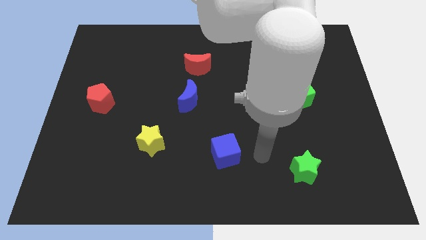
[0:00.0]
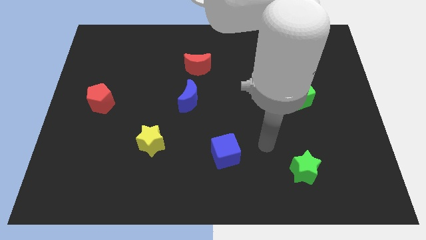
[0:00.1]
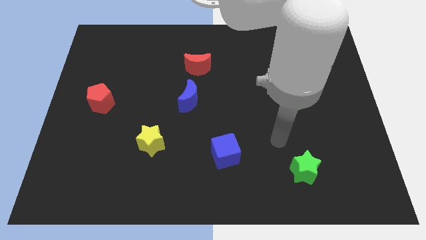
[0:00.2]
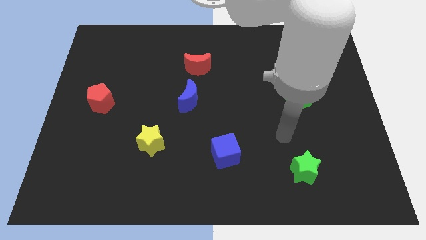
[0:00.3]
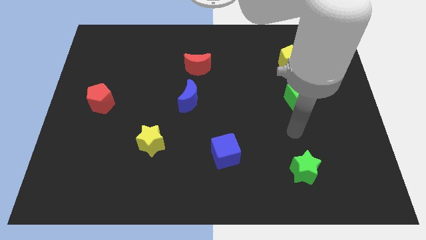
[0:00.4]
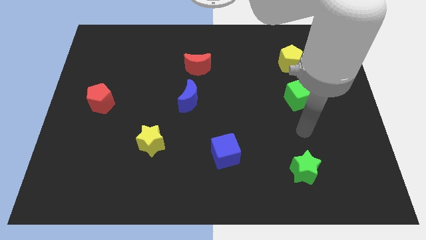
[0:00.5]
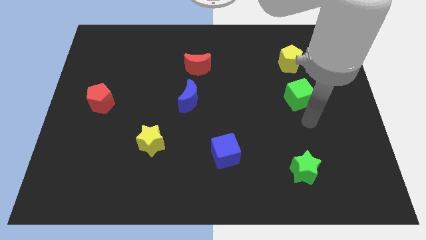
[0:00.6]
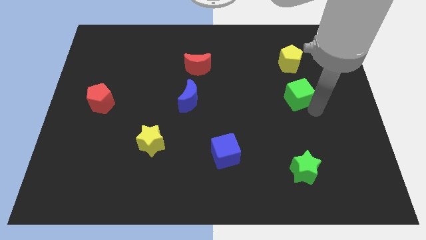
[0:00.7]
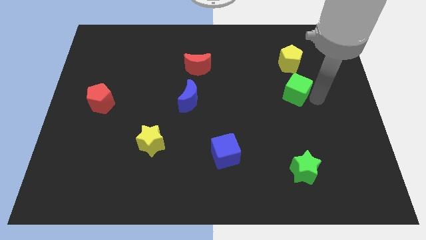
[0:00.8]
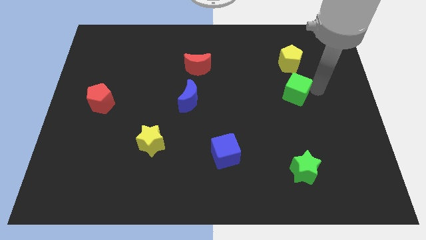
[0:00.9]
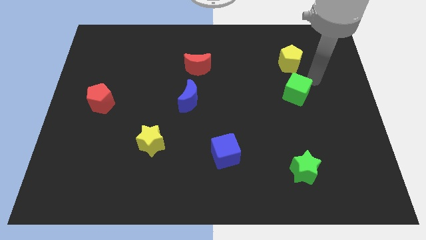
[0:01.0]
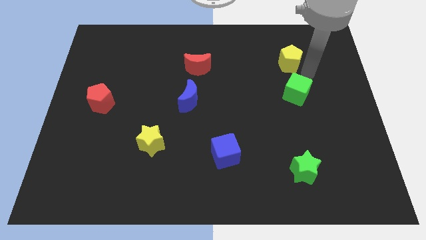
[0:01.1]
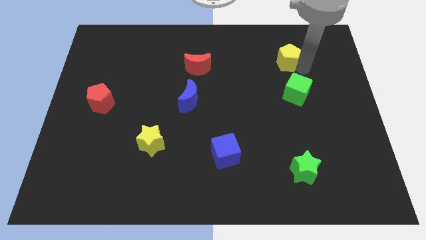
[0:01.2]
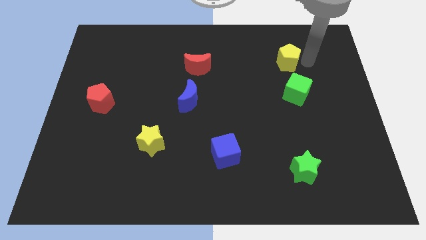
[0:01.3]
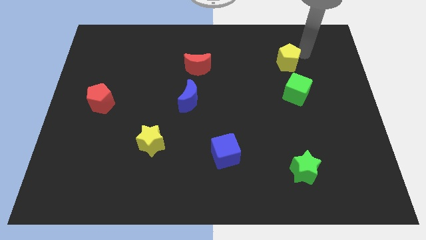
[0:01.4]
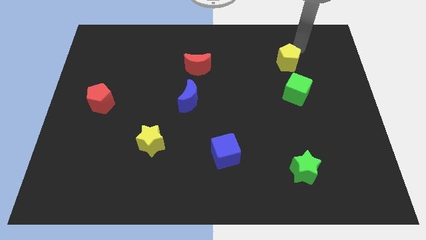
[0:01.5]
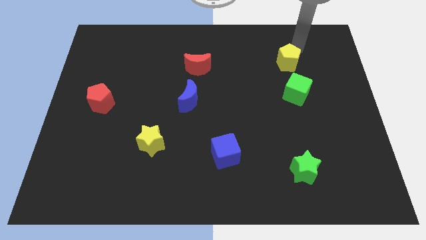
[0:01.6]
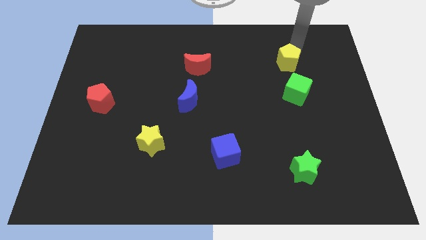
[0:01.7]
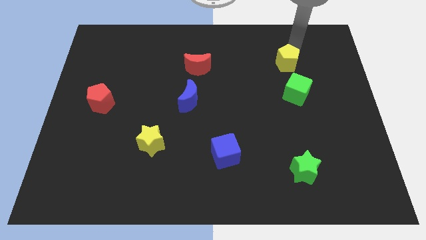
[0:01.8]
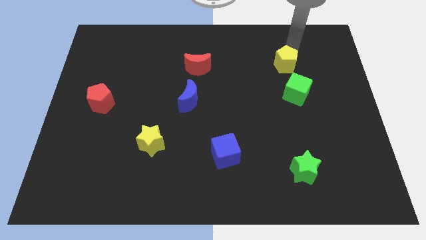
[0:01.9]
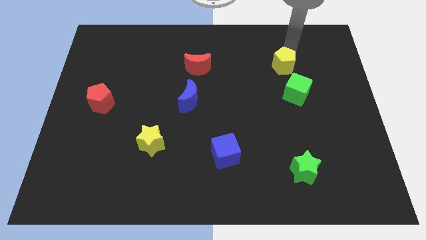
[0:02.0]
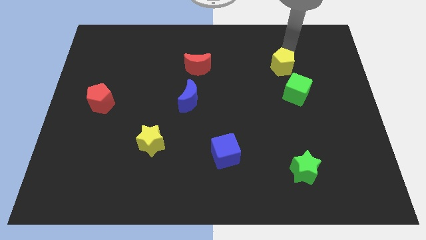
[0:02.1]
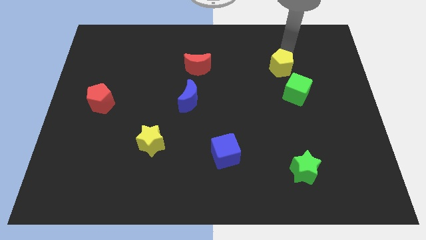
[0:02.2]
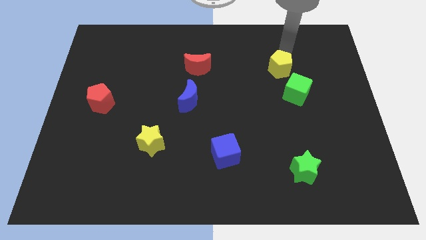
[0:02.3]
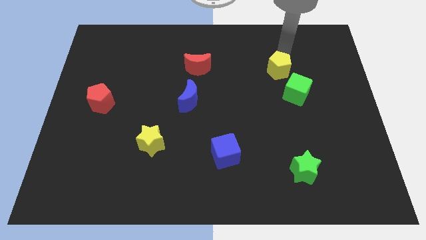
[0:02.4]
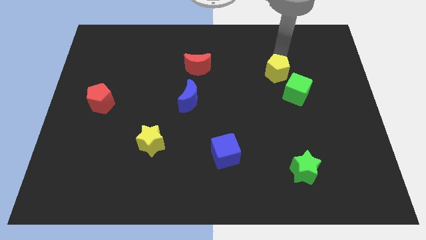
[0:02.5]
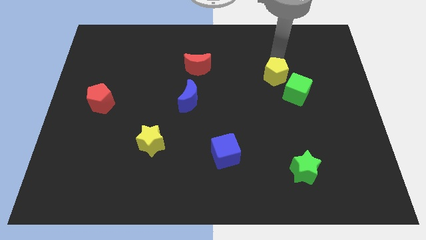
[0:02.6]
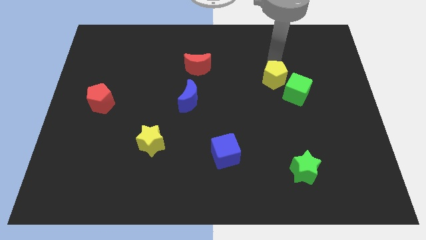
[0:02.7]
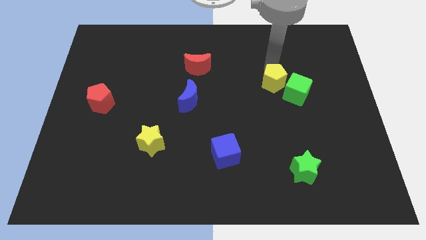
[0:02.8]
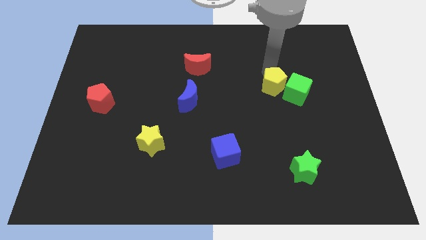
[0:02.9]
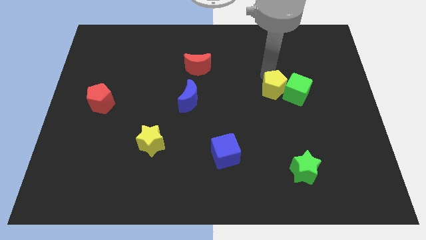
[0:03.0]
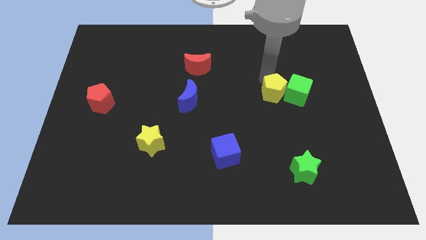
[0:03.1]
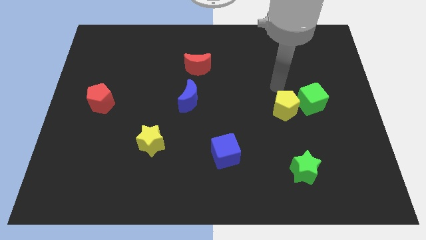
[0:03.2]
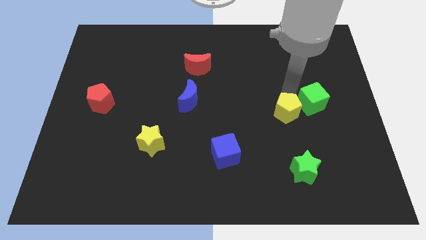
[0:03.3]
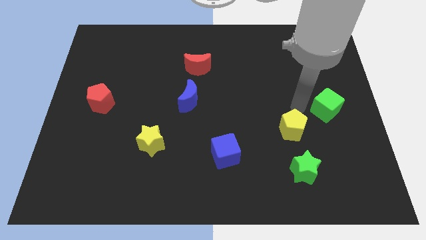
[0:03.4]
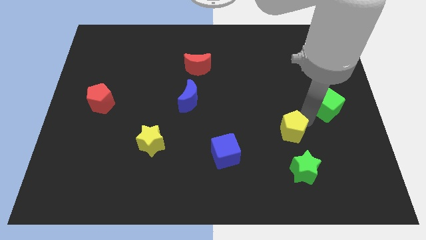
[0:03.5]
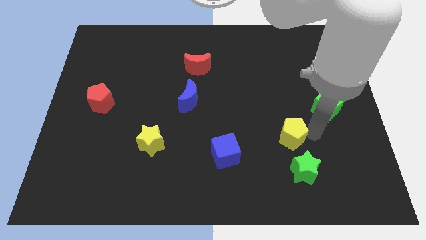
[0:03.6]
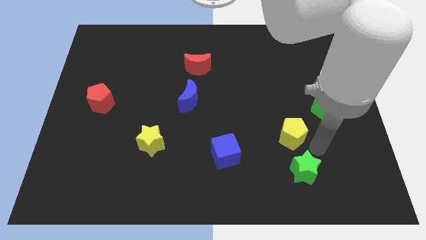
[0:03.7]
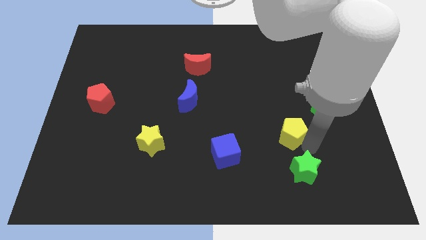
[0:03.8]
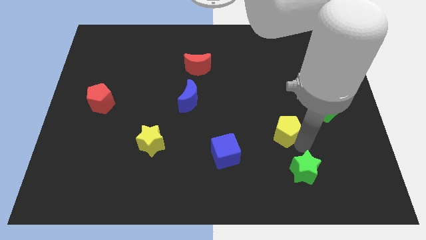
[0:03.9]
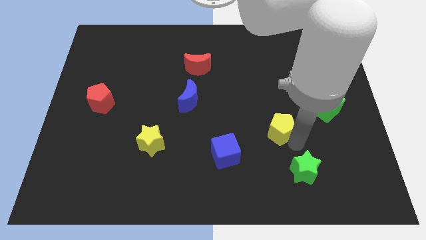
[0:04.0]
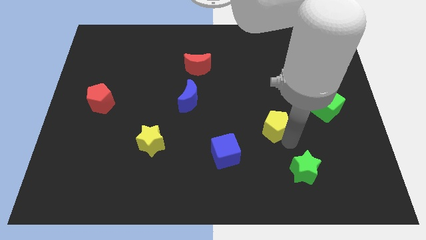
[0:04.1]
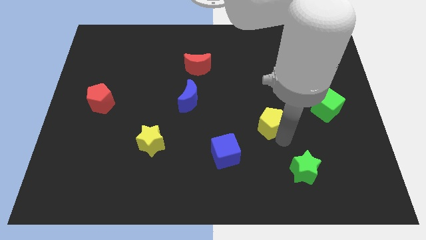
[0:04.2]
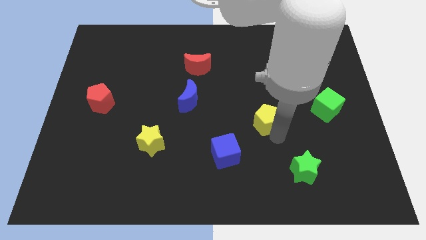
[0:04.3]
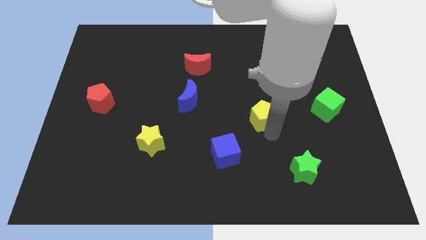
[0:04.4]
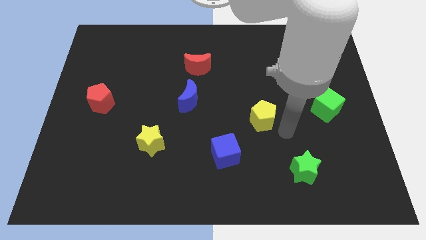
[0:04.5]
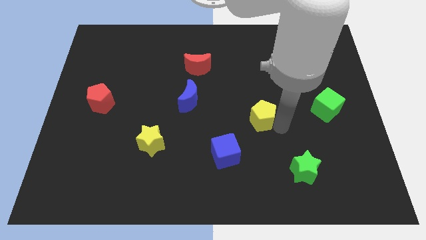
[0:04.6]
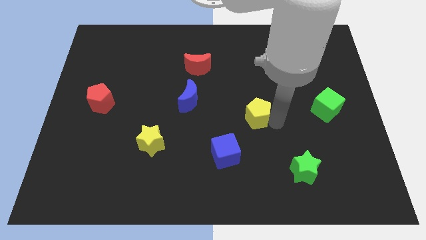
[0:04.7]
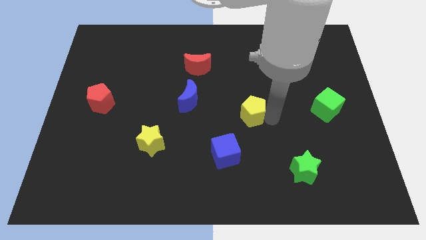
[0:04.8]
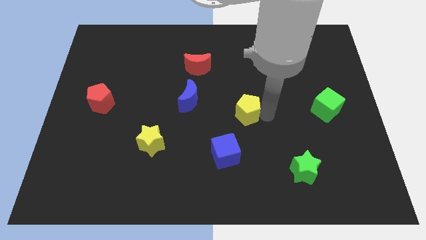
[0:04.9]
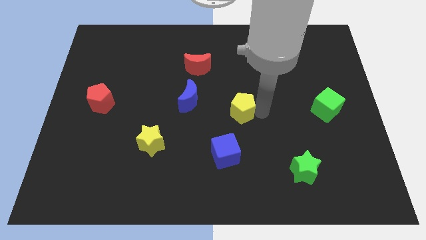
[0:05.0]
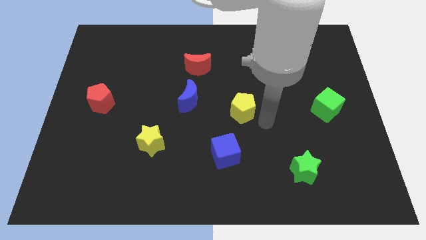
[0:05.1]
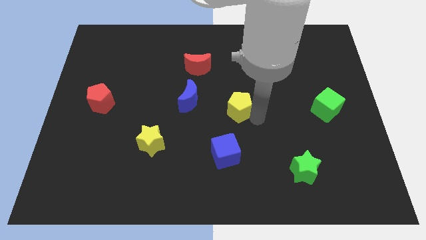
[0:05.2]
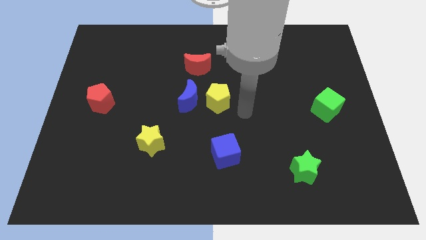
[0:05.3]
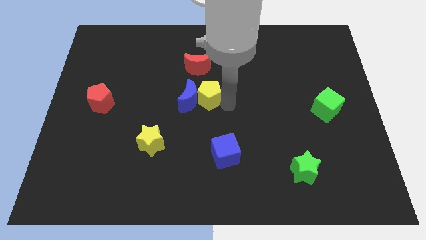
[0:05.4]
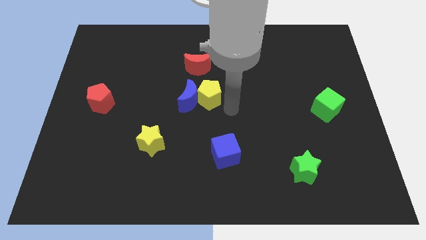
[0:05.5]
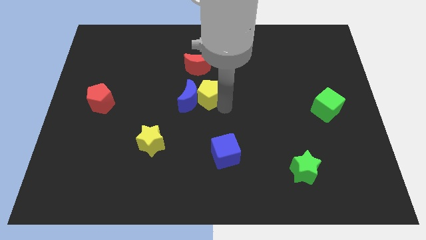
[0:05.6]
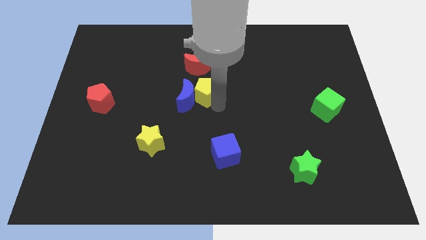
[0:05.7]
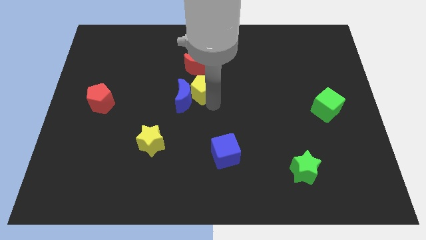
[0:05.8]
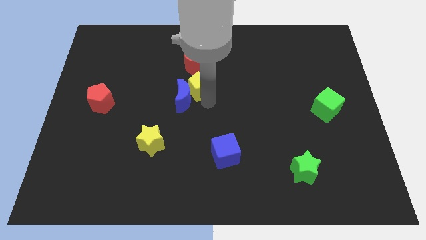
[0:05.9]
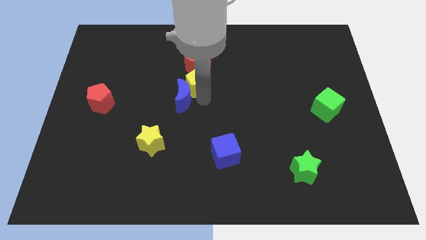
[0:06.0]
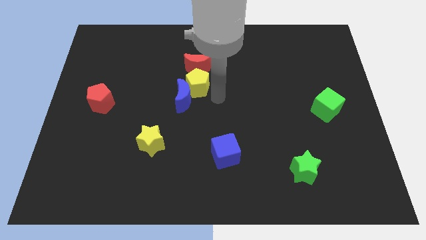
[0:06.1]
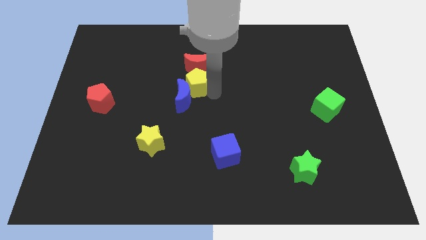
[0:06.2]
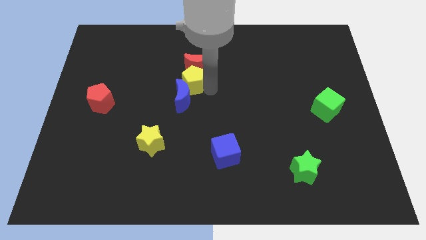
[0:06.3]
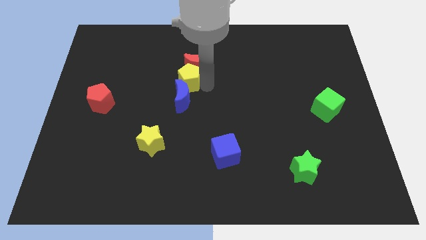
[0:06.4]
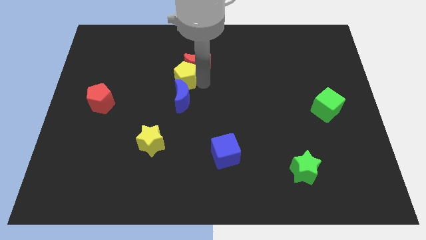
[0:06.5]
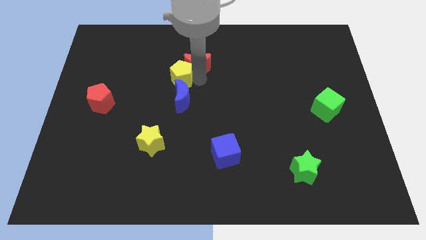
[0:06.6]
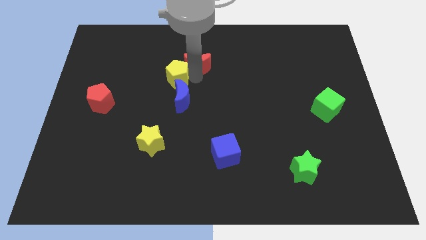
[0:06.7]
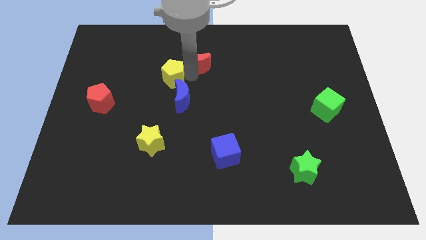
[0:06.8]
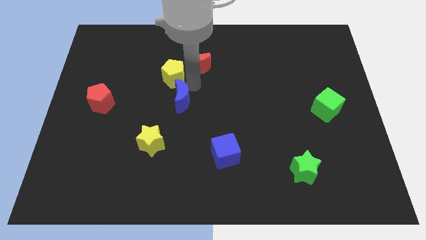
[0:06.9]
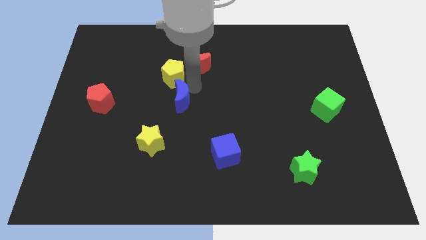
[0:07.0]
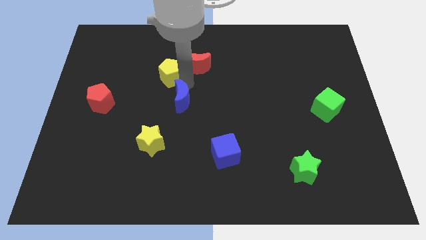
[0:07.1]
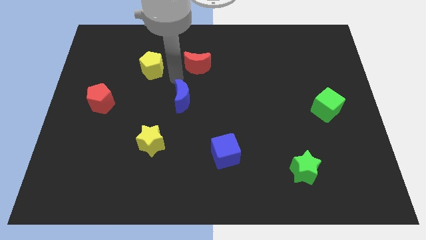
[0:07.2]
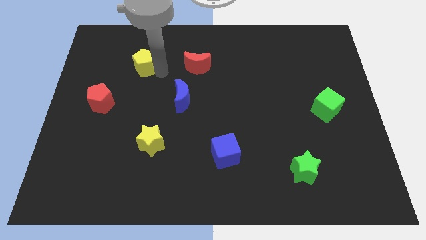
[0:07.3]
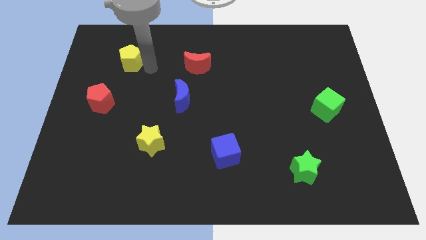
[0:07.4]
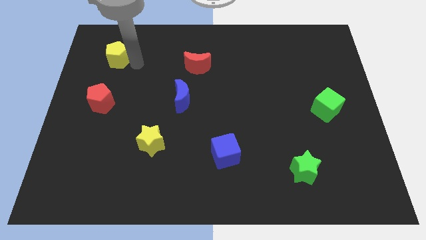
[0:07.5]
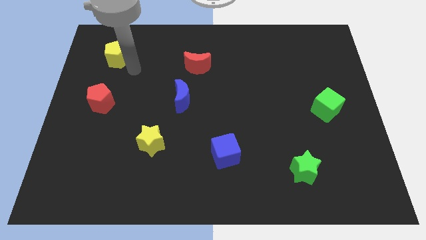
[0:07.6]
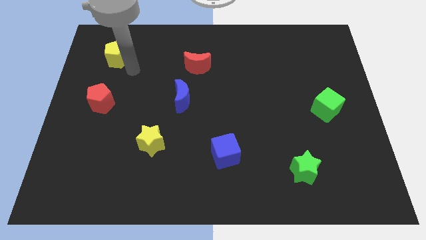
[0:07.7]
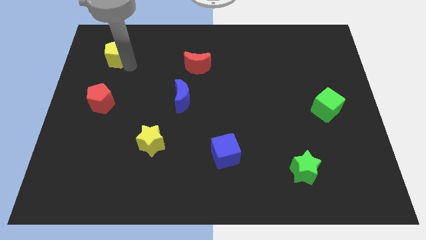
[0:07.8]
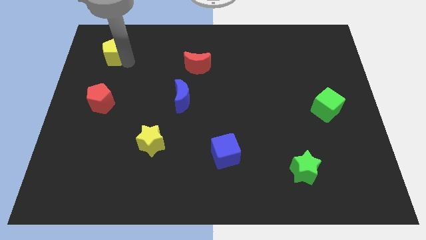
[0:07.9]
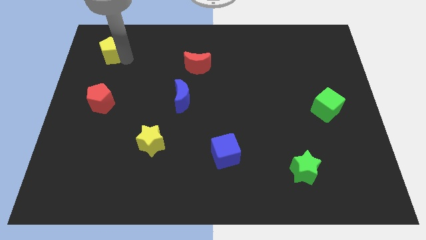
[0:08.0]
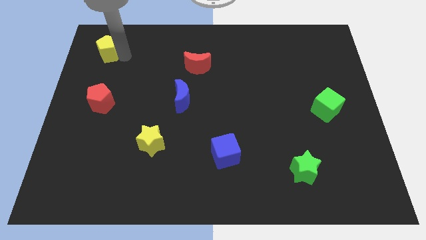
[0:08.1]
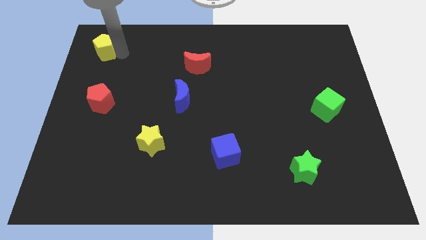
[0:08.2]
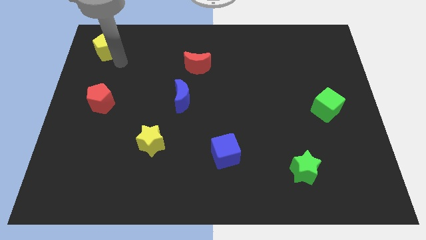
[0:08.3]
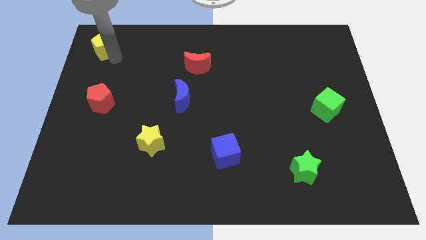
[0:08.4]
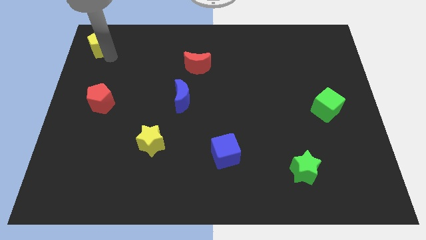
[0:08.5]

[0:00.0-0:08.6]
push the yellow pentagon to the top left of the board
